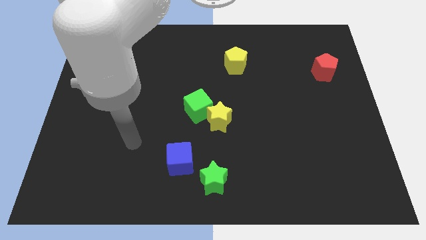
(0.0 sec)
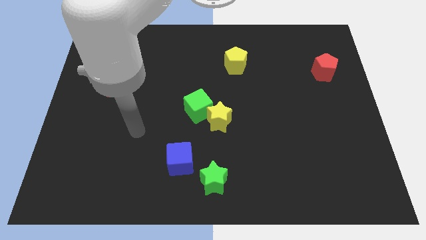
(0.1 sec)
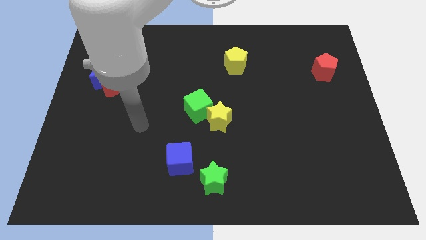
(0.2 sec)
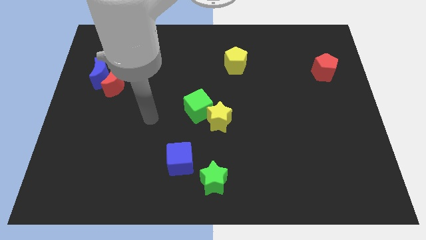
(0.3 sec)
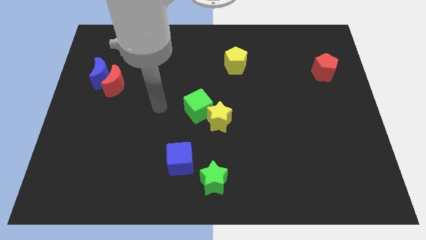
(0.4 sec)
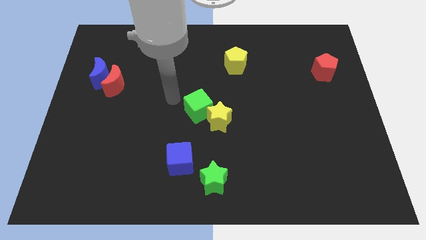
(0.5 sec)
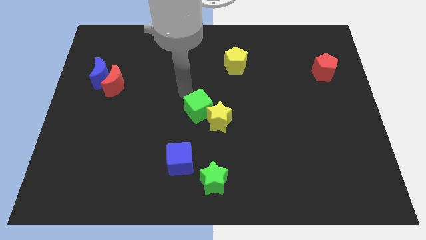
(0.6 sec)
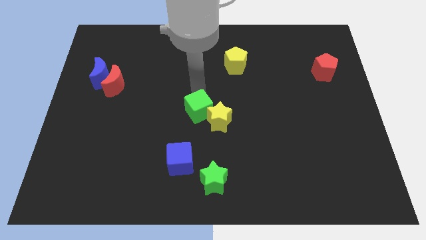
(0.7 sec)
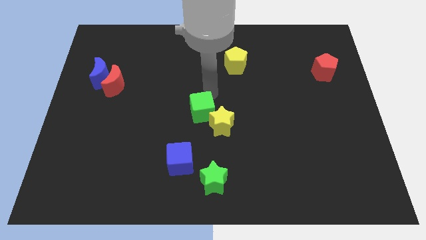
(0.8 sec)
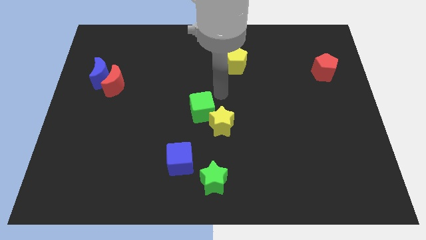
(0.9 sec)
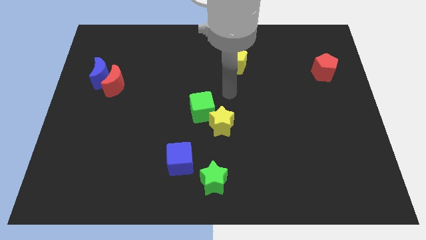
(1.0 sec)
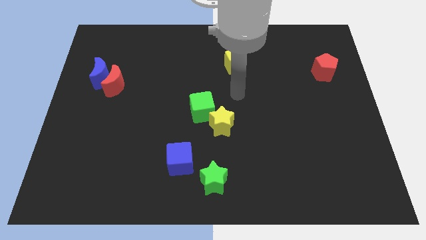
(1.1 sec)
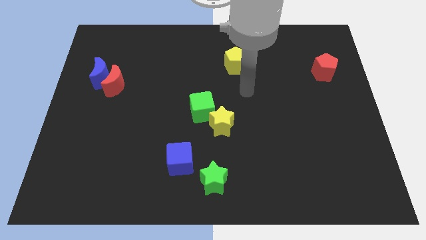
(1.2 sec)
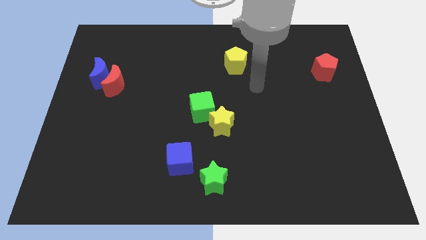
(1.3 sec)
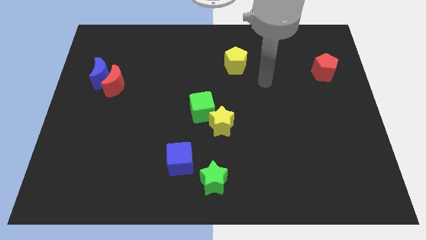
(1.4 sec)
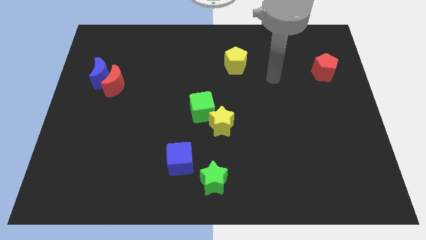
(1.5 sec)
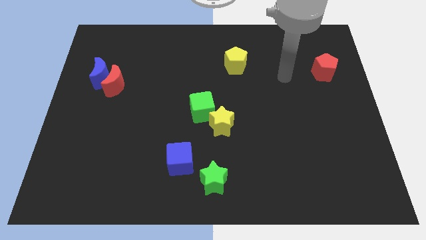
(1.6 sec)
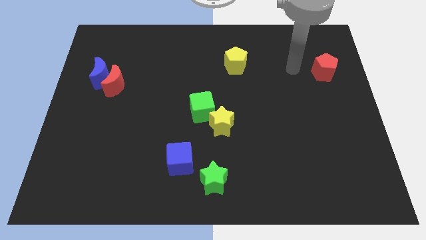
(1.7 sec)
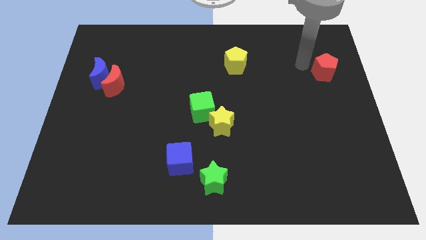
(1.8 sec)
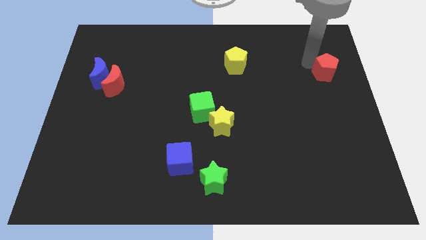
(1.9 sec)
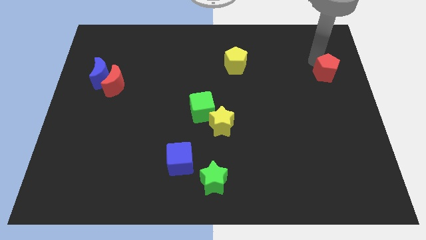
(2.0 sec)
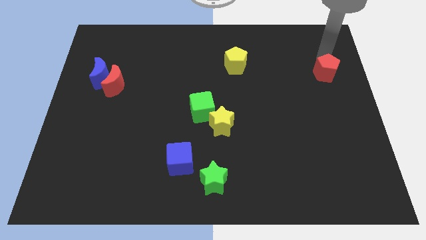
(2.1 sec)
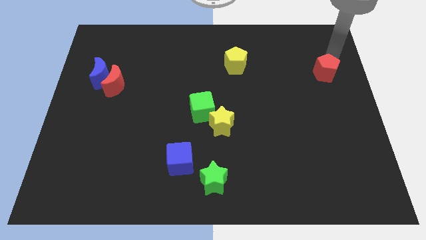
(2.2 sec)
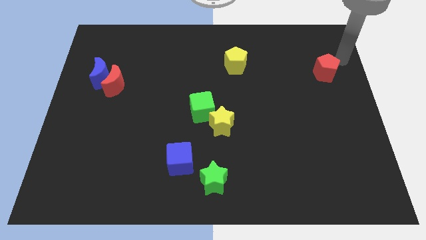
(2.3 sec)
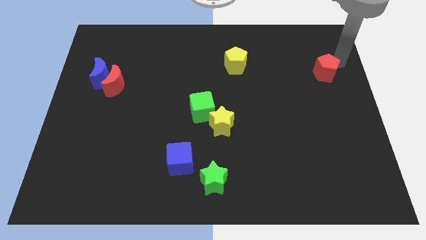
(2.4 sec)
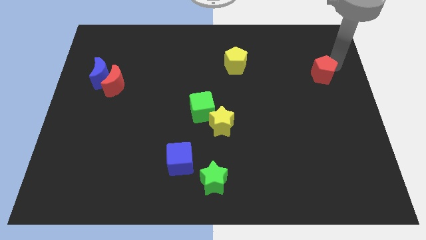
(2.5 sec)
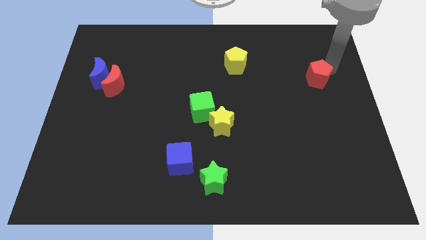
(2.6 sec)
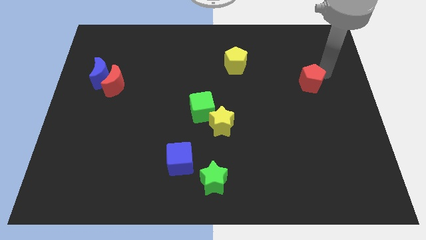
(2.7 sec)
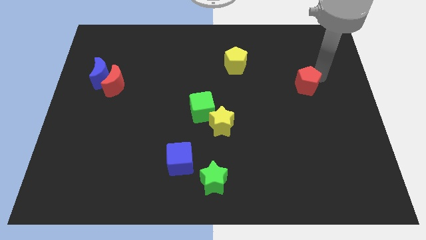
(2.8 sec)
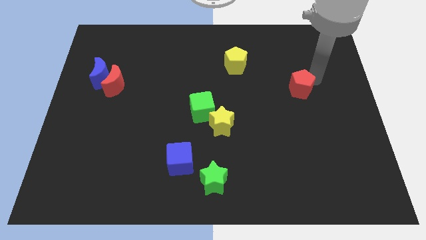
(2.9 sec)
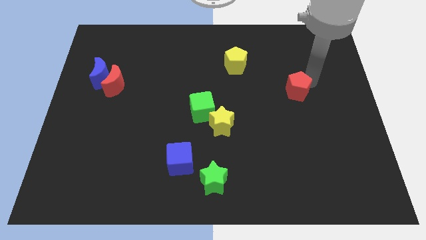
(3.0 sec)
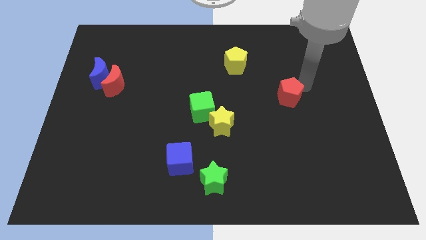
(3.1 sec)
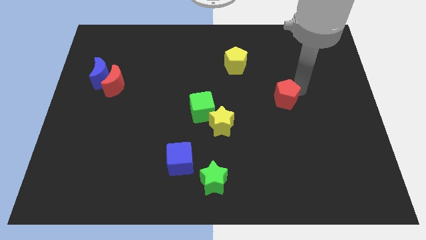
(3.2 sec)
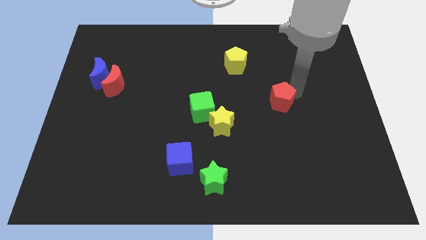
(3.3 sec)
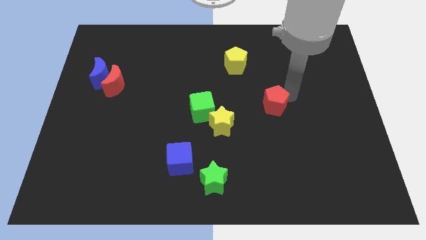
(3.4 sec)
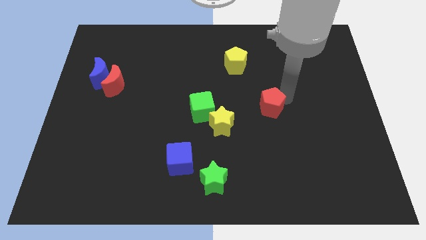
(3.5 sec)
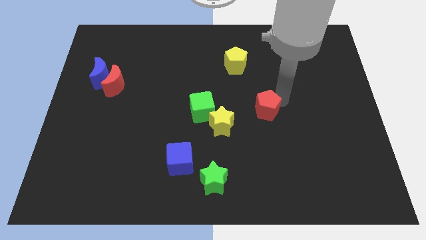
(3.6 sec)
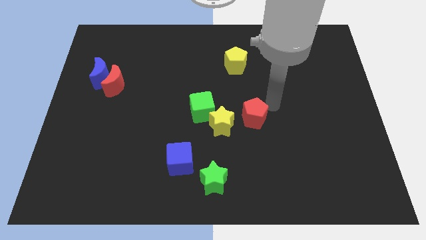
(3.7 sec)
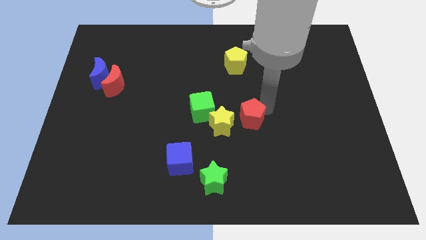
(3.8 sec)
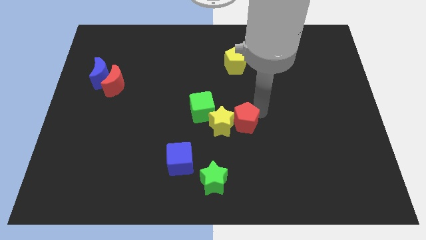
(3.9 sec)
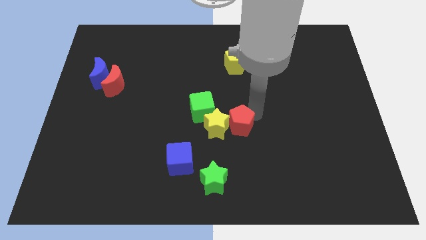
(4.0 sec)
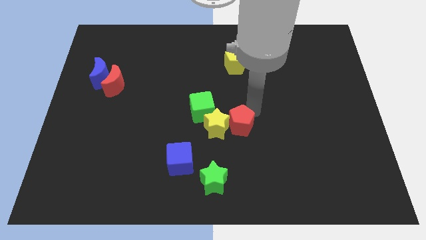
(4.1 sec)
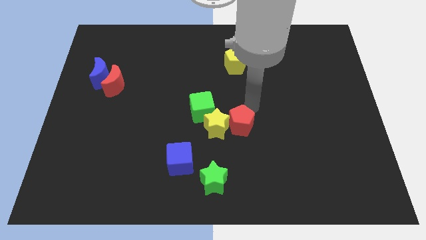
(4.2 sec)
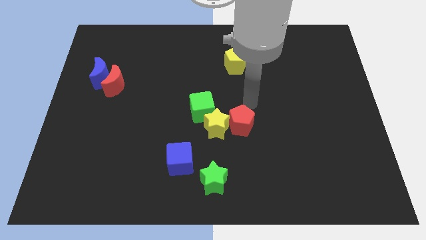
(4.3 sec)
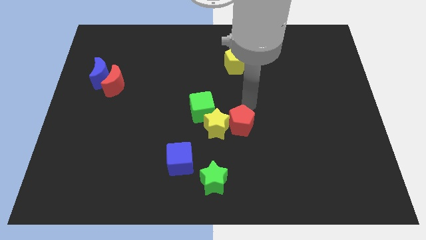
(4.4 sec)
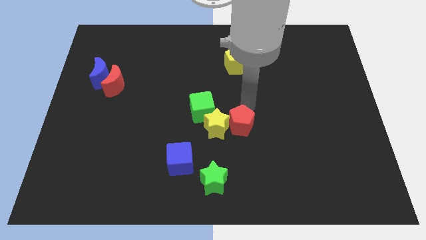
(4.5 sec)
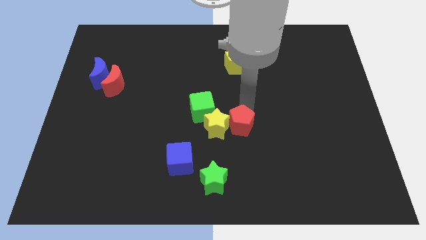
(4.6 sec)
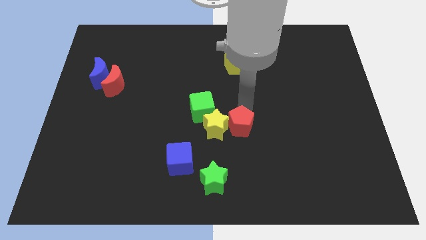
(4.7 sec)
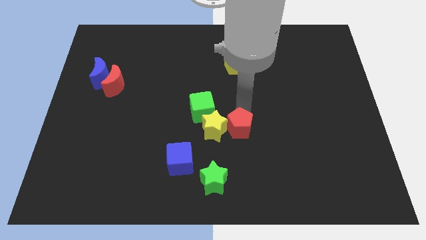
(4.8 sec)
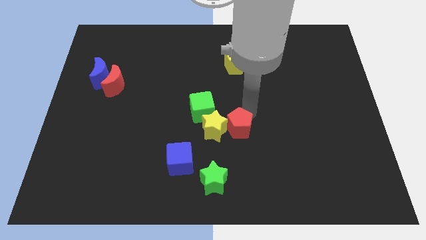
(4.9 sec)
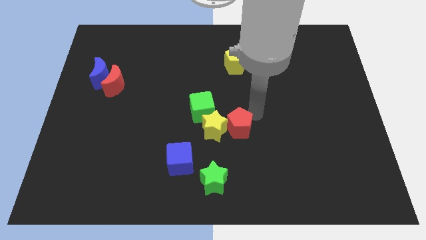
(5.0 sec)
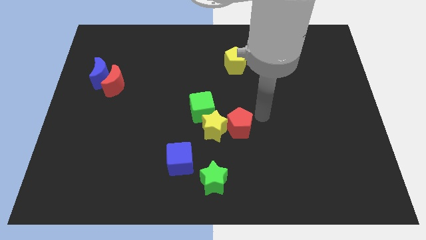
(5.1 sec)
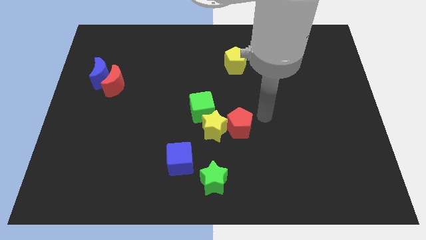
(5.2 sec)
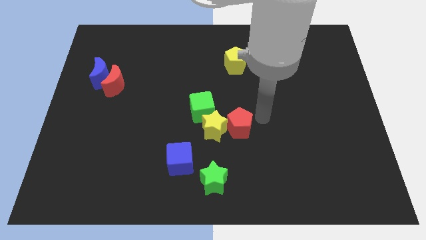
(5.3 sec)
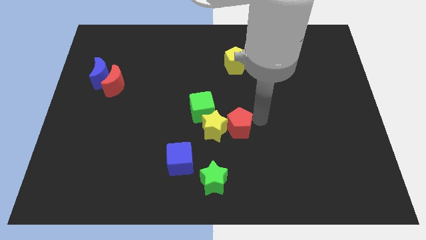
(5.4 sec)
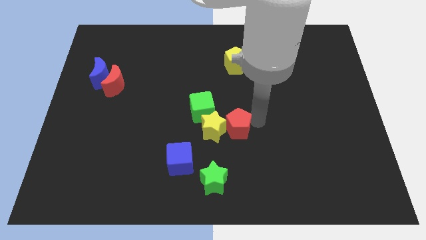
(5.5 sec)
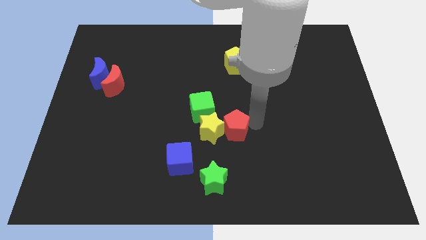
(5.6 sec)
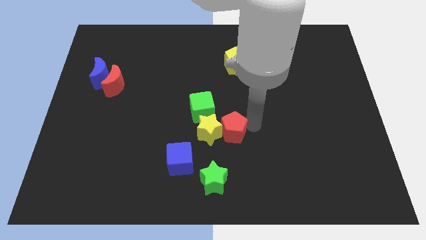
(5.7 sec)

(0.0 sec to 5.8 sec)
put the red pentagon to the top side of the green star

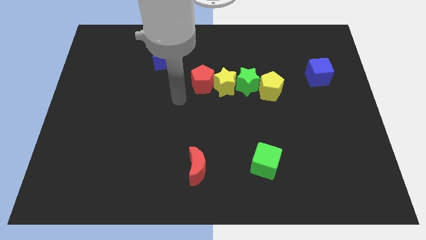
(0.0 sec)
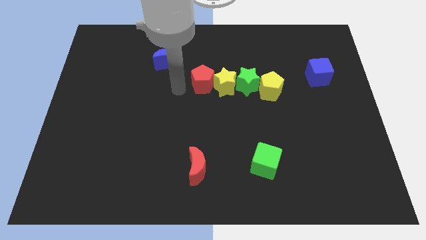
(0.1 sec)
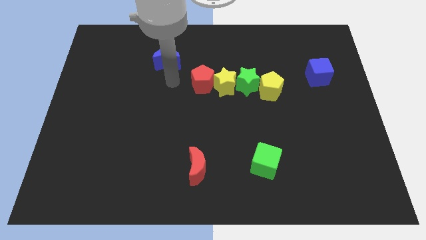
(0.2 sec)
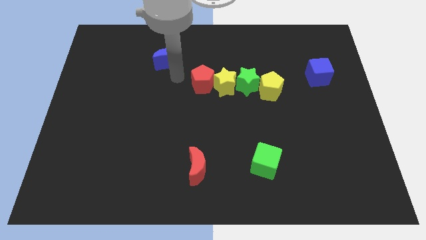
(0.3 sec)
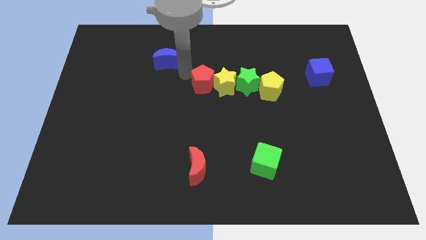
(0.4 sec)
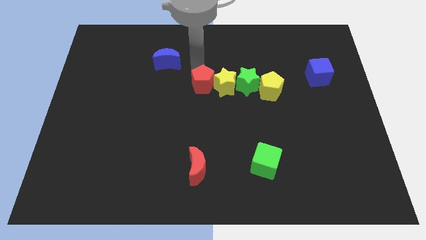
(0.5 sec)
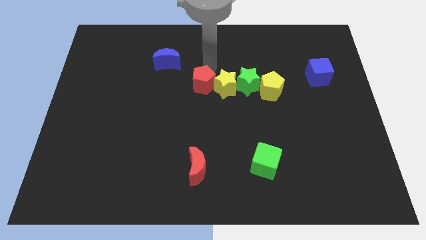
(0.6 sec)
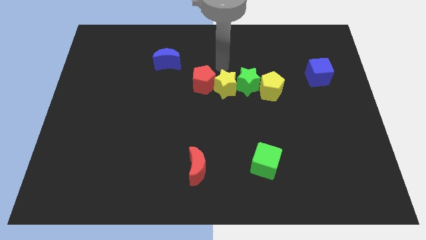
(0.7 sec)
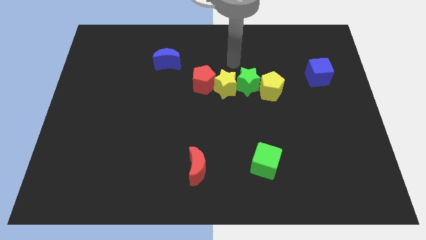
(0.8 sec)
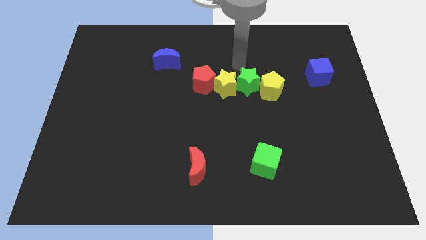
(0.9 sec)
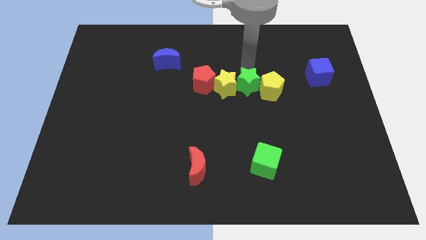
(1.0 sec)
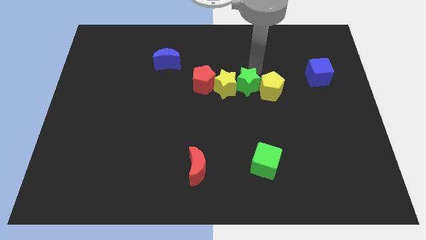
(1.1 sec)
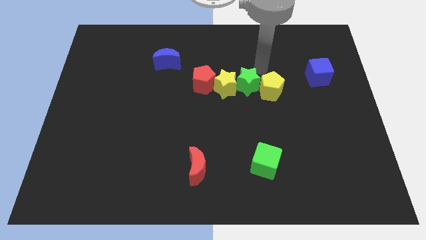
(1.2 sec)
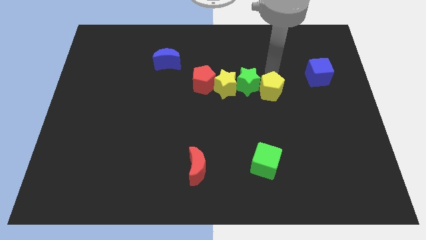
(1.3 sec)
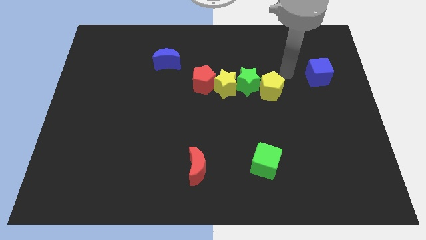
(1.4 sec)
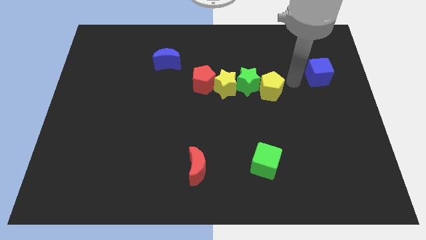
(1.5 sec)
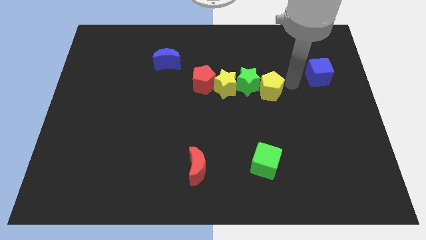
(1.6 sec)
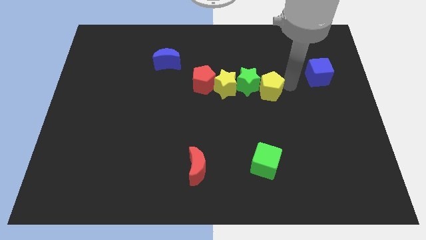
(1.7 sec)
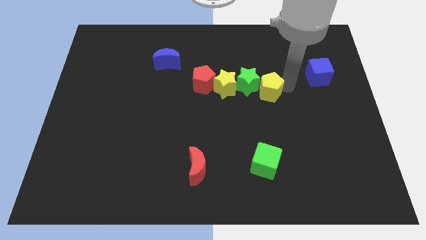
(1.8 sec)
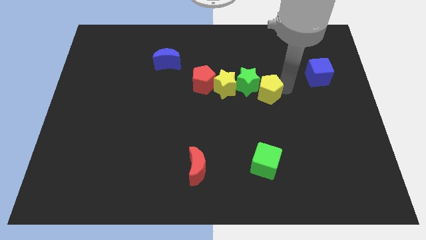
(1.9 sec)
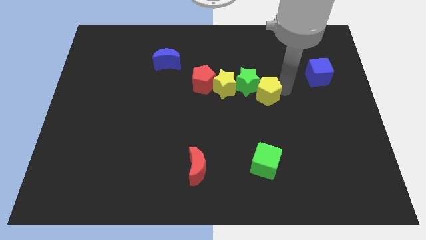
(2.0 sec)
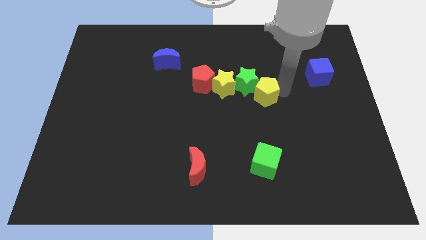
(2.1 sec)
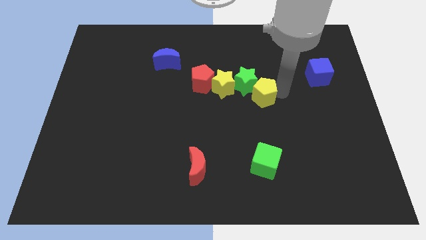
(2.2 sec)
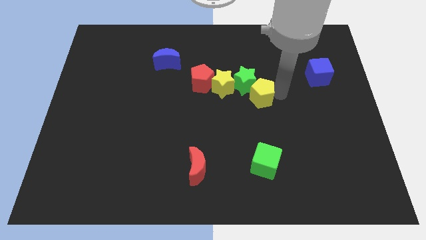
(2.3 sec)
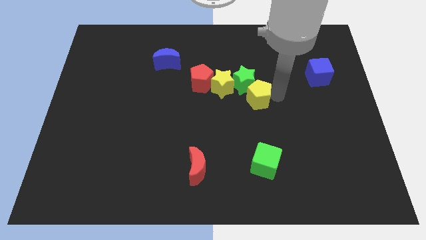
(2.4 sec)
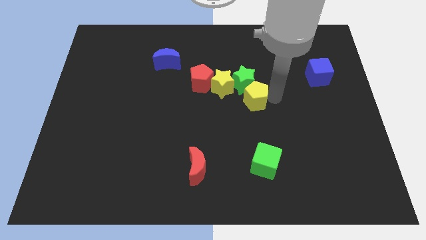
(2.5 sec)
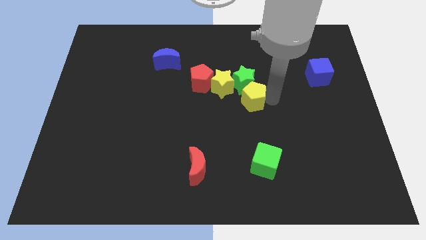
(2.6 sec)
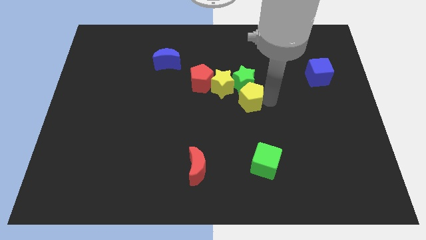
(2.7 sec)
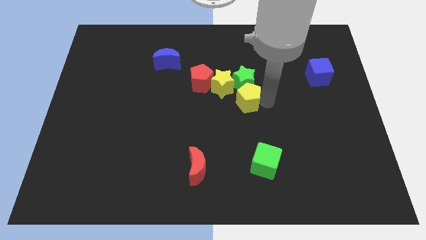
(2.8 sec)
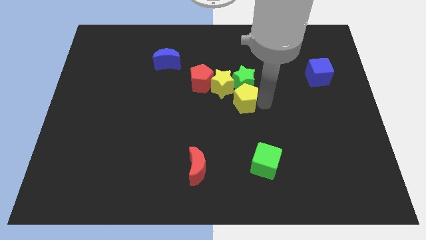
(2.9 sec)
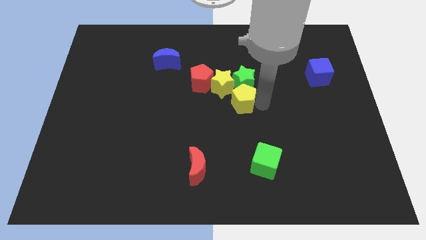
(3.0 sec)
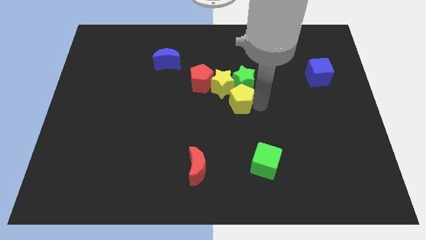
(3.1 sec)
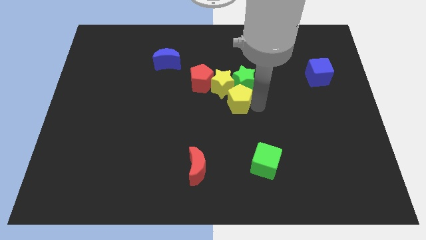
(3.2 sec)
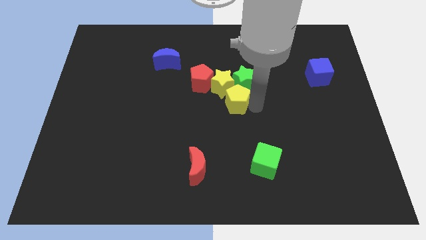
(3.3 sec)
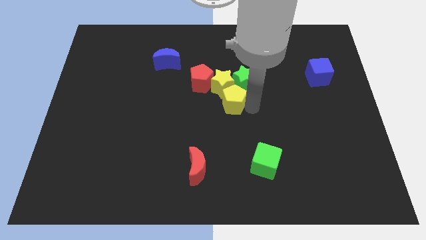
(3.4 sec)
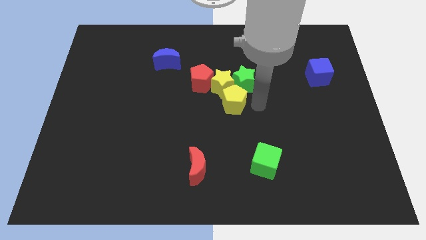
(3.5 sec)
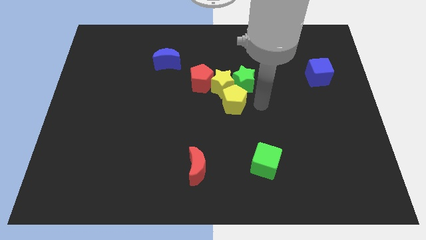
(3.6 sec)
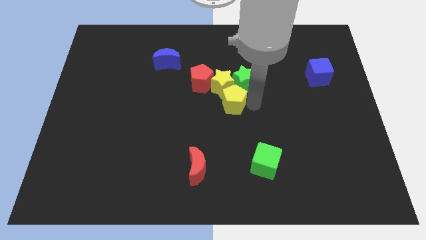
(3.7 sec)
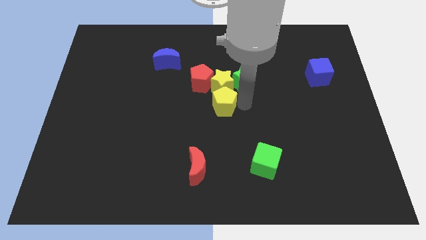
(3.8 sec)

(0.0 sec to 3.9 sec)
put the yellow pentagon to the bottom left side of the yellow star
